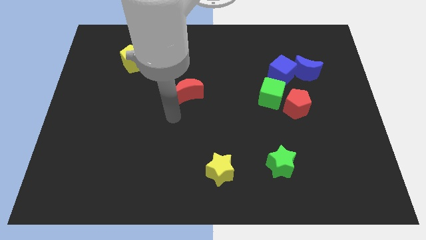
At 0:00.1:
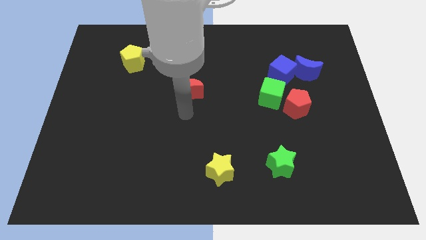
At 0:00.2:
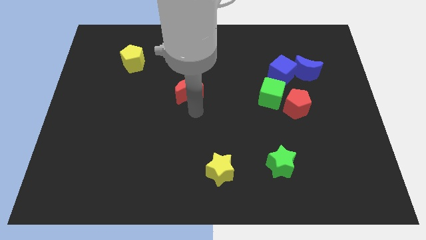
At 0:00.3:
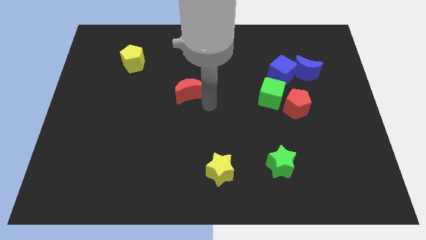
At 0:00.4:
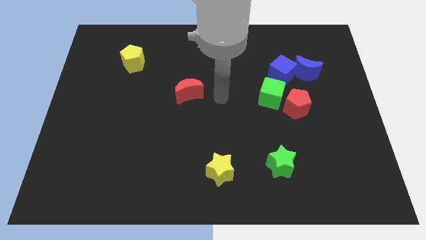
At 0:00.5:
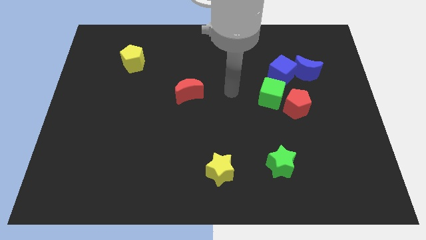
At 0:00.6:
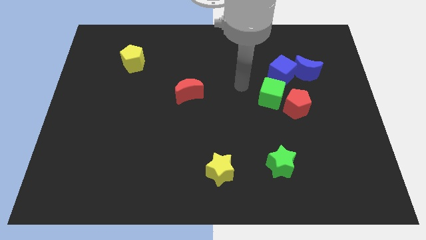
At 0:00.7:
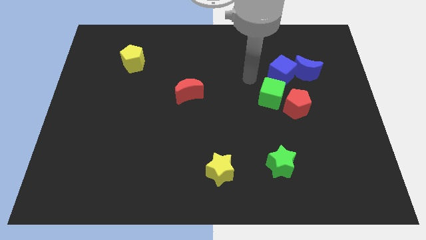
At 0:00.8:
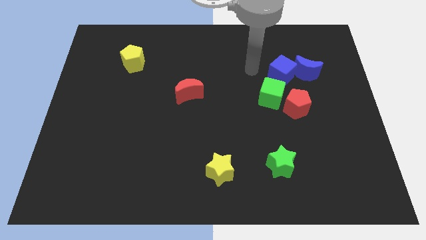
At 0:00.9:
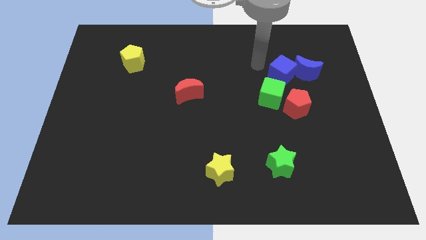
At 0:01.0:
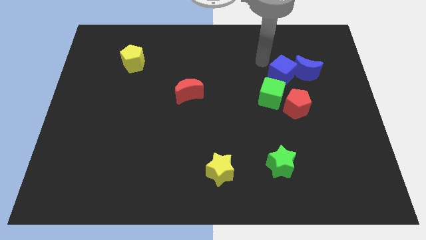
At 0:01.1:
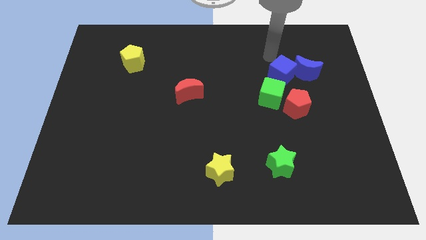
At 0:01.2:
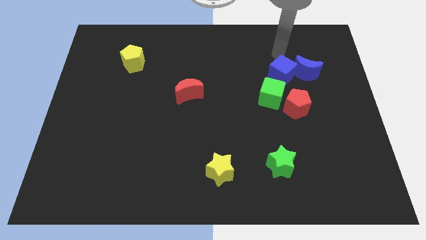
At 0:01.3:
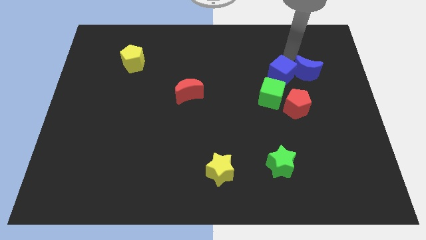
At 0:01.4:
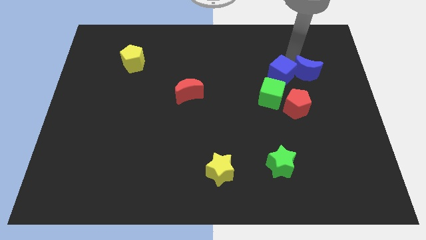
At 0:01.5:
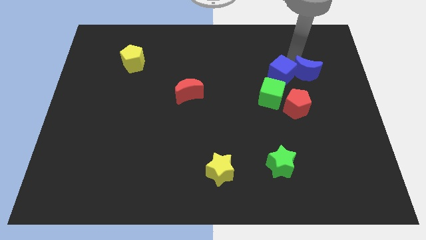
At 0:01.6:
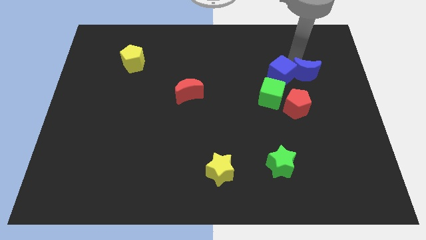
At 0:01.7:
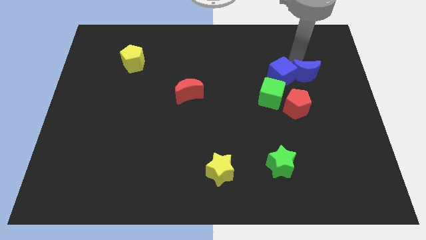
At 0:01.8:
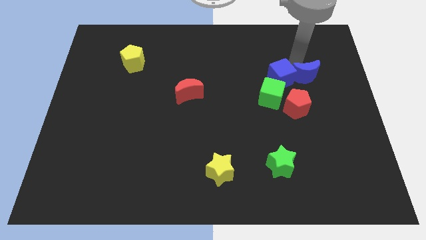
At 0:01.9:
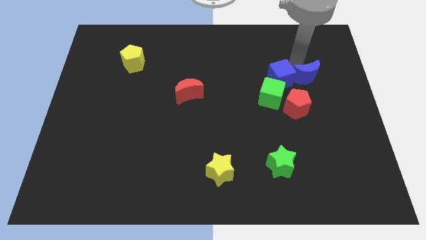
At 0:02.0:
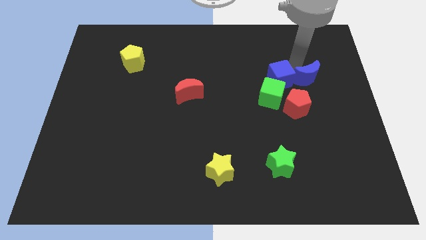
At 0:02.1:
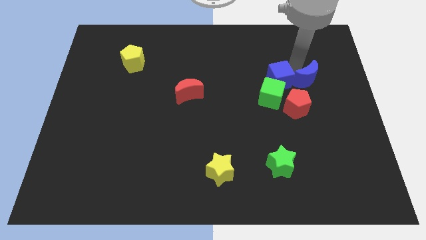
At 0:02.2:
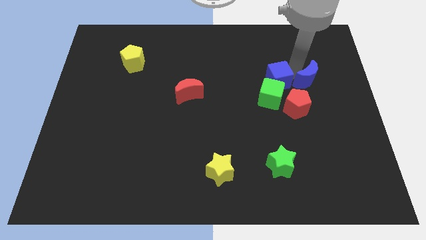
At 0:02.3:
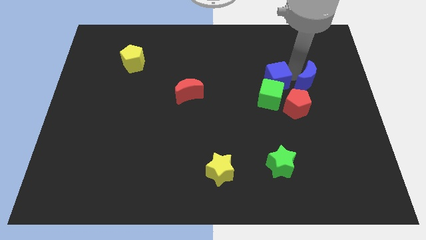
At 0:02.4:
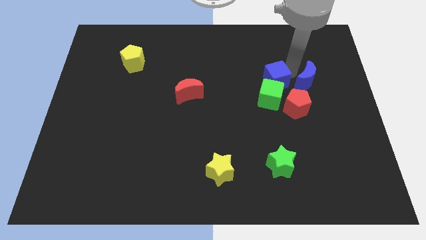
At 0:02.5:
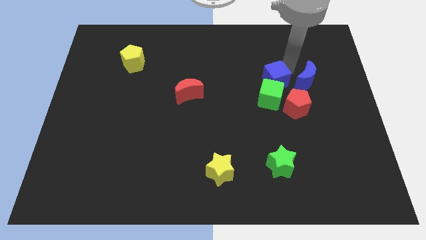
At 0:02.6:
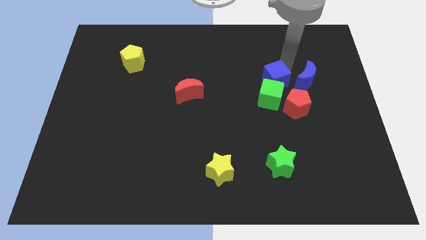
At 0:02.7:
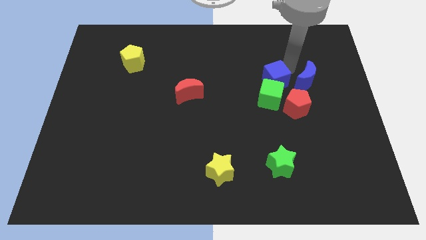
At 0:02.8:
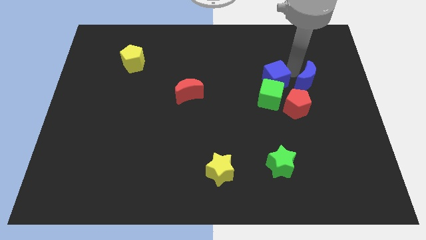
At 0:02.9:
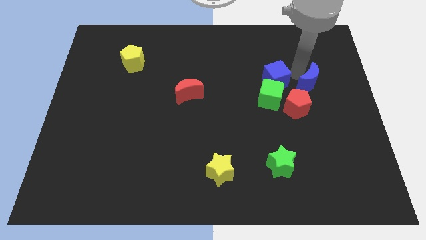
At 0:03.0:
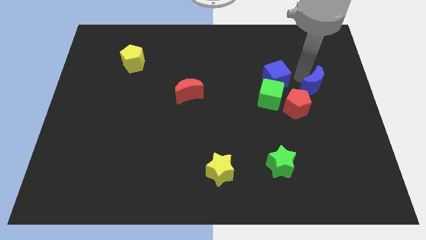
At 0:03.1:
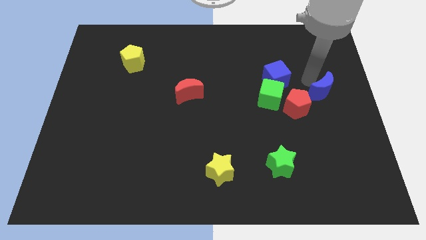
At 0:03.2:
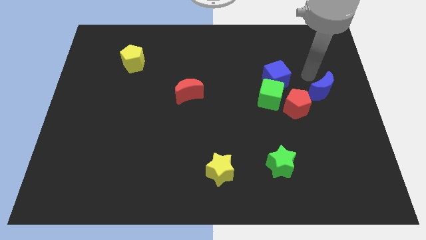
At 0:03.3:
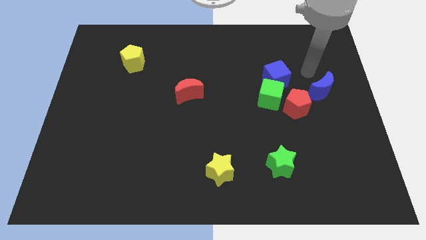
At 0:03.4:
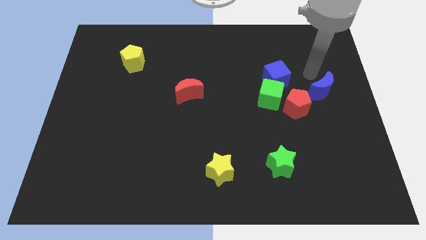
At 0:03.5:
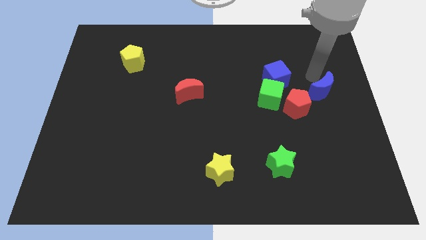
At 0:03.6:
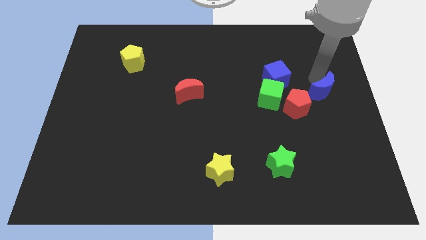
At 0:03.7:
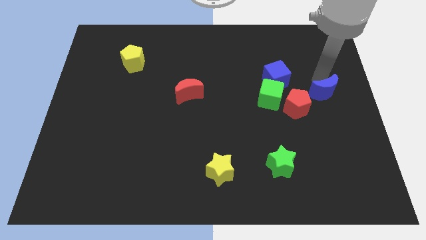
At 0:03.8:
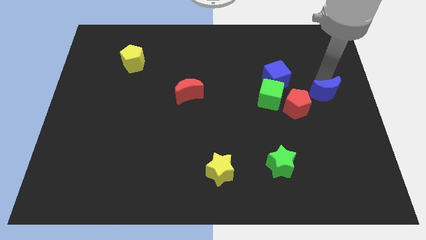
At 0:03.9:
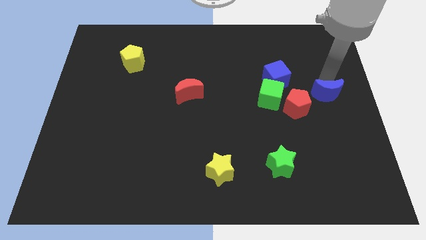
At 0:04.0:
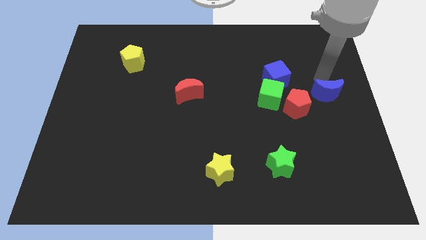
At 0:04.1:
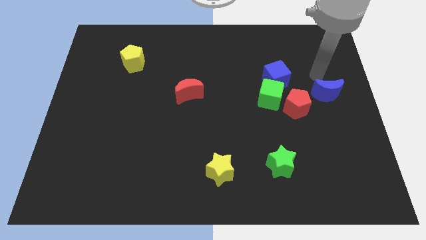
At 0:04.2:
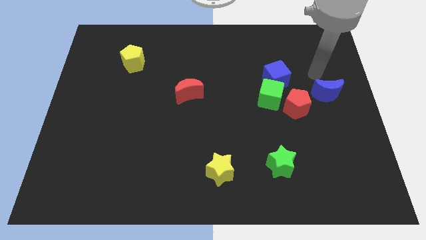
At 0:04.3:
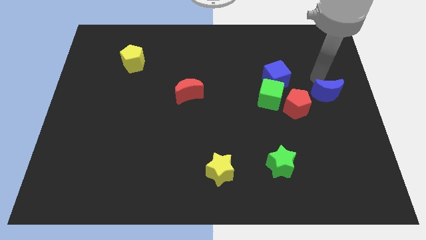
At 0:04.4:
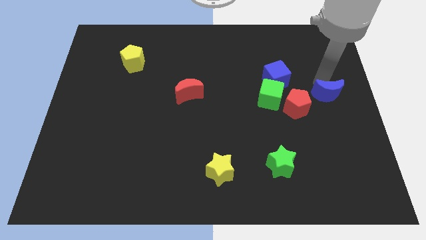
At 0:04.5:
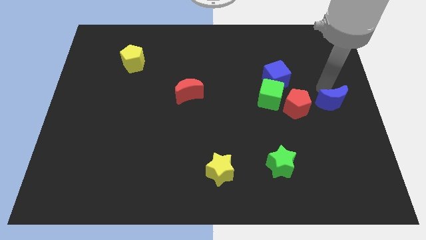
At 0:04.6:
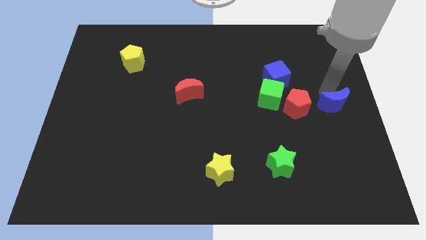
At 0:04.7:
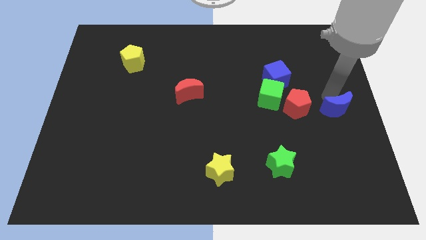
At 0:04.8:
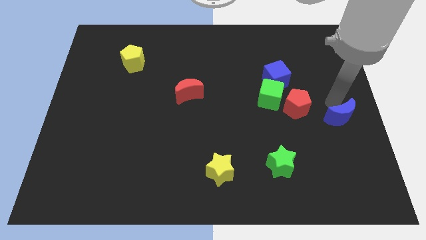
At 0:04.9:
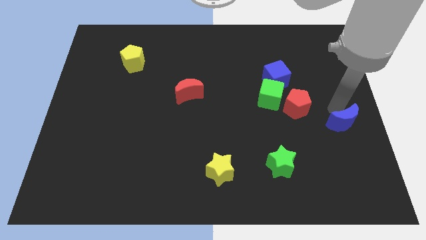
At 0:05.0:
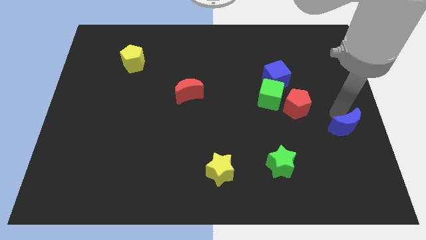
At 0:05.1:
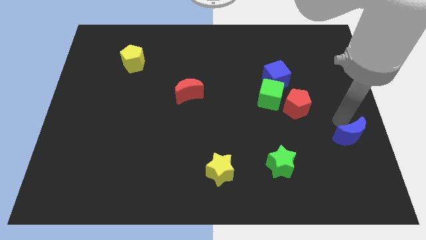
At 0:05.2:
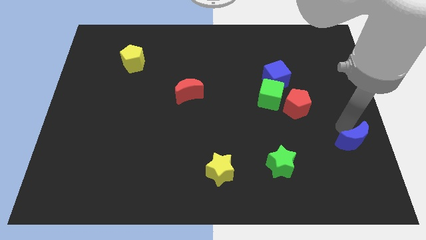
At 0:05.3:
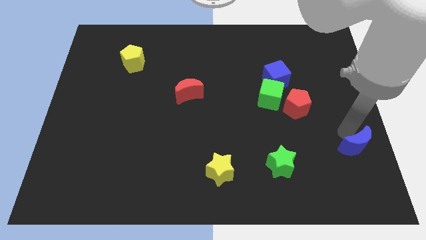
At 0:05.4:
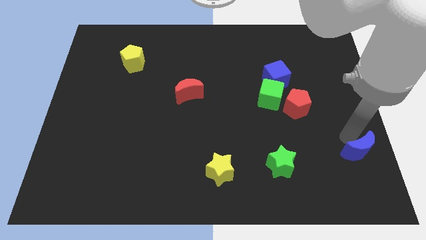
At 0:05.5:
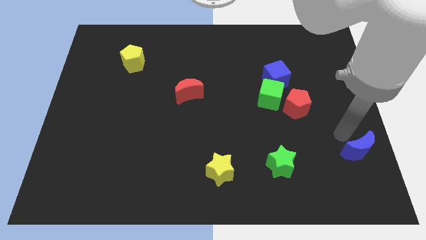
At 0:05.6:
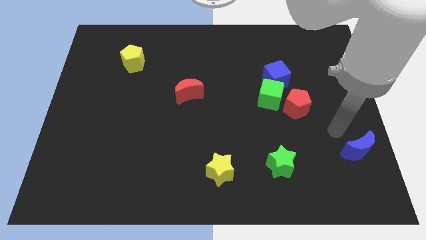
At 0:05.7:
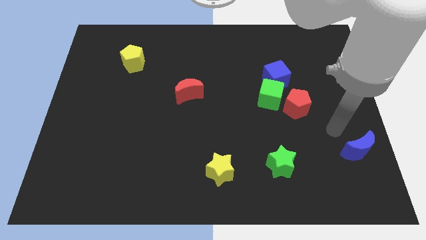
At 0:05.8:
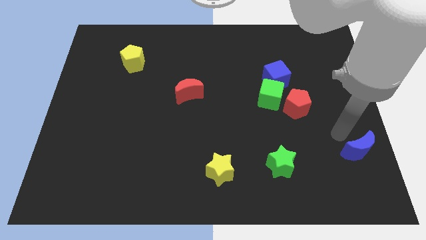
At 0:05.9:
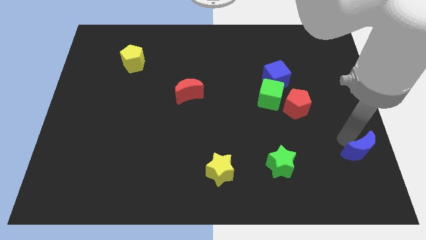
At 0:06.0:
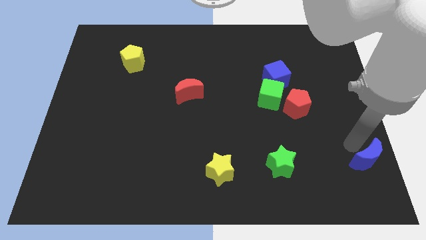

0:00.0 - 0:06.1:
put the blue moon to the lower right corner

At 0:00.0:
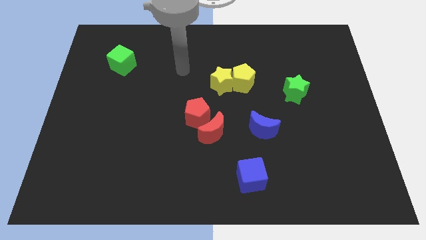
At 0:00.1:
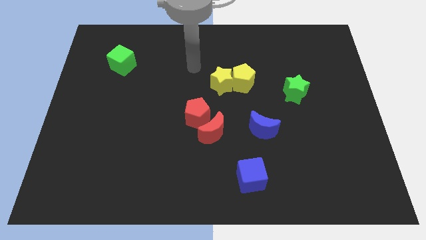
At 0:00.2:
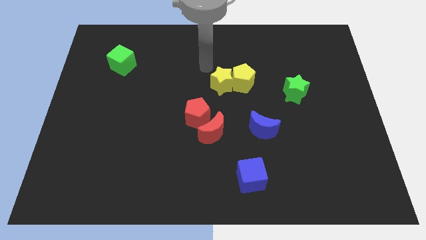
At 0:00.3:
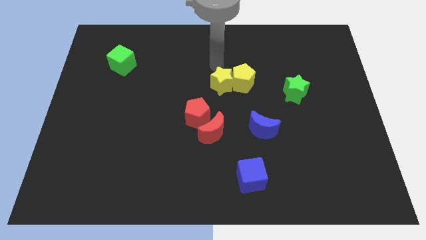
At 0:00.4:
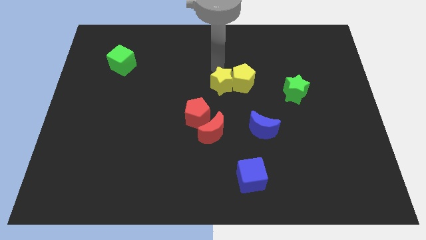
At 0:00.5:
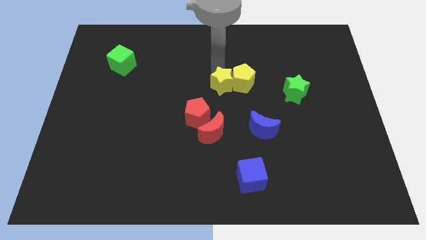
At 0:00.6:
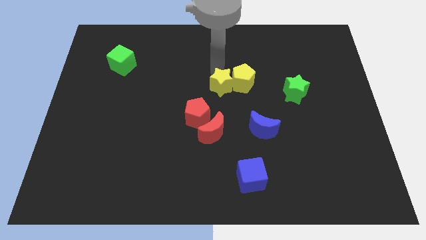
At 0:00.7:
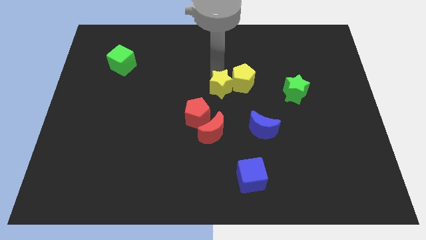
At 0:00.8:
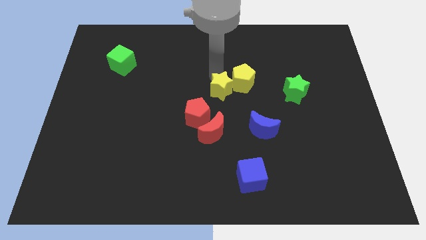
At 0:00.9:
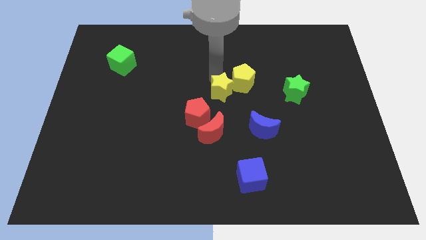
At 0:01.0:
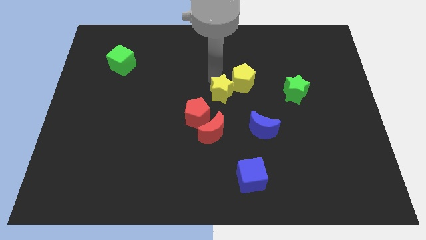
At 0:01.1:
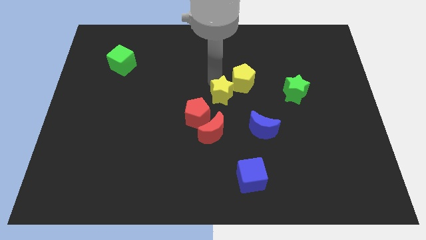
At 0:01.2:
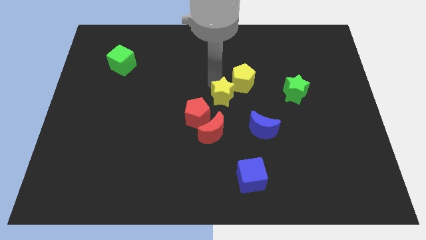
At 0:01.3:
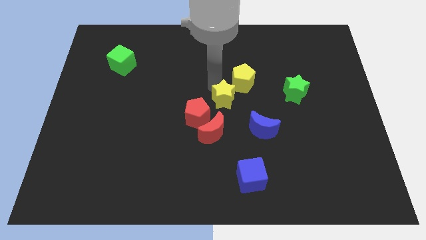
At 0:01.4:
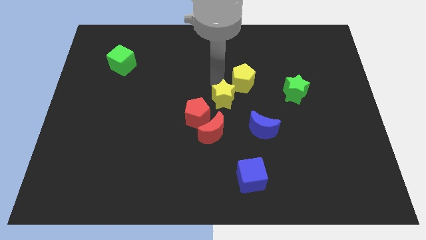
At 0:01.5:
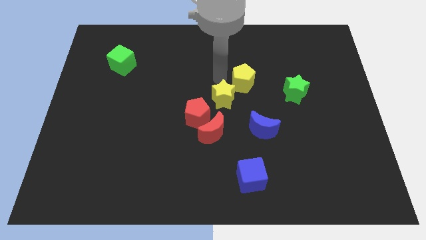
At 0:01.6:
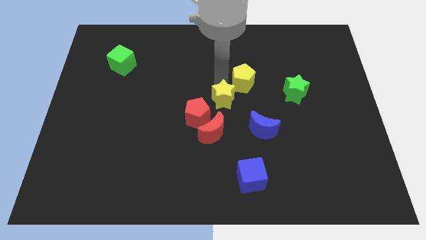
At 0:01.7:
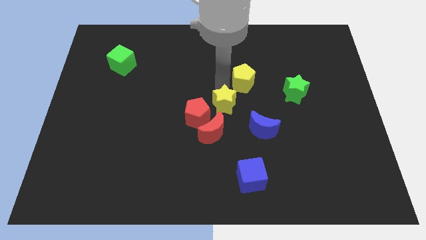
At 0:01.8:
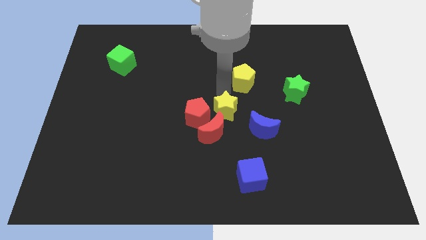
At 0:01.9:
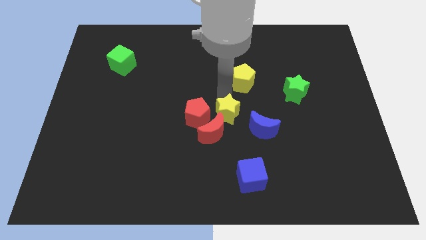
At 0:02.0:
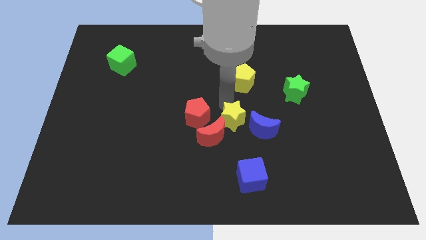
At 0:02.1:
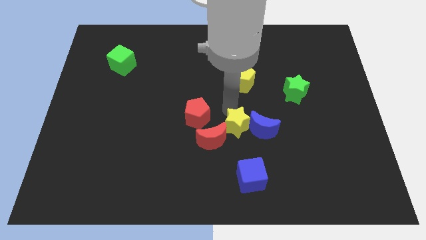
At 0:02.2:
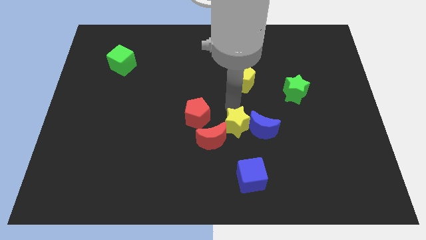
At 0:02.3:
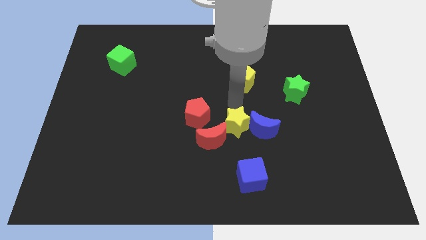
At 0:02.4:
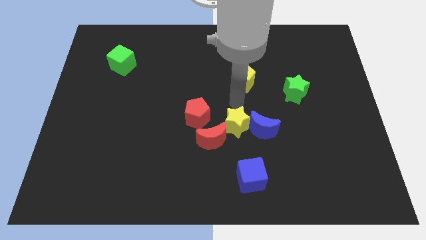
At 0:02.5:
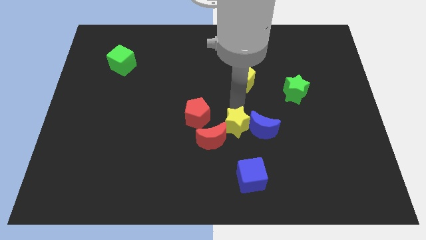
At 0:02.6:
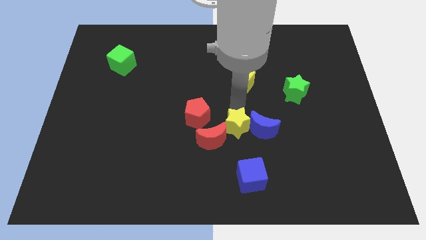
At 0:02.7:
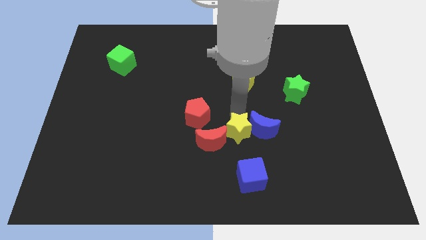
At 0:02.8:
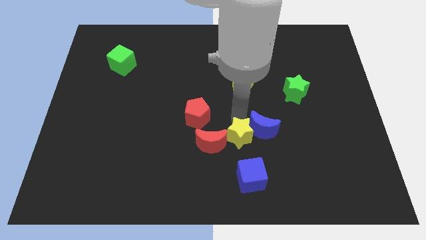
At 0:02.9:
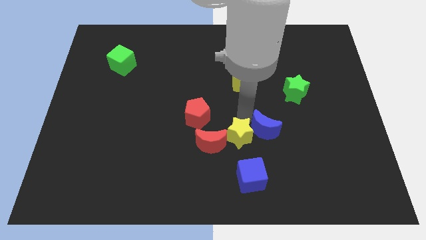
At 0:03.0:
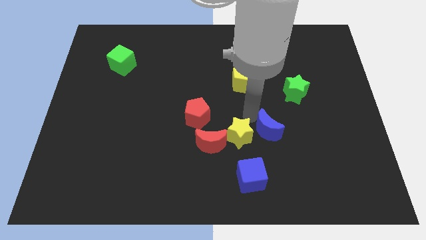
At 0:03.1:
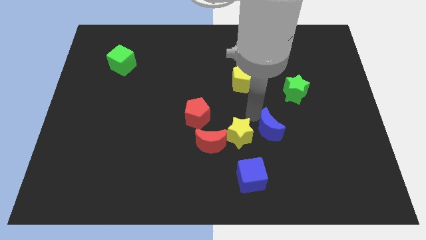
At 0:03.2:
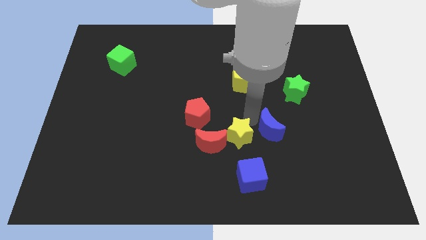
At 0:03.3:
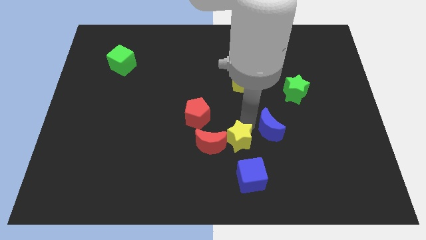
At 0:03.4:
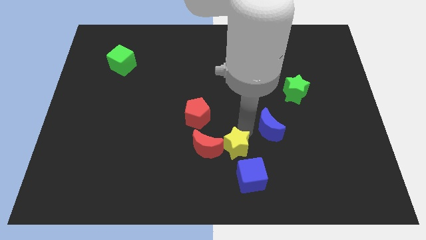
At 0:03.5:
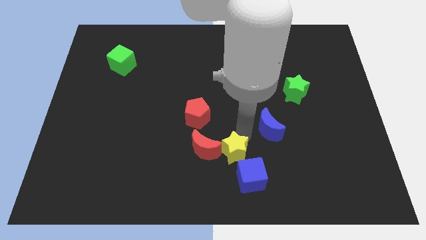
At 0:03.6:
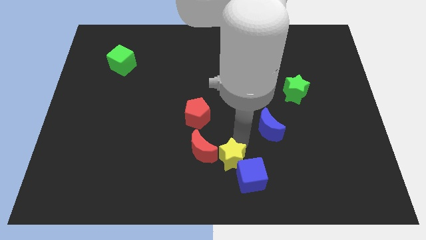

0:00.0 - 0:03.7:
push the yellow star to the bottom side
